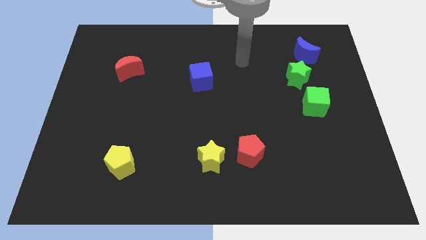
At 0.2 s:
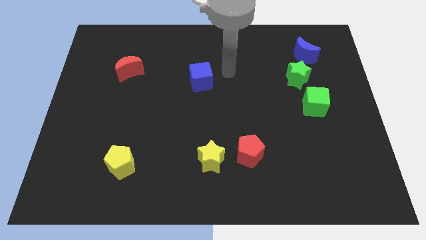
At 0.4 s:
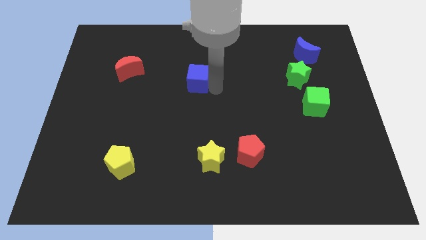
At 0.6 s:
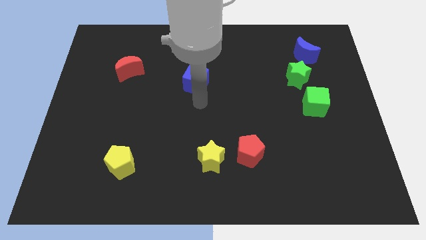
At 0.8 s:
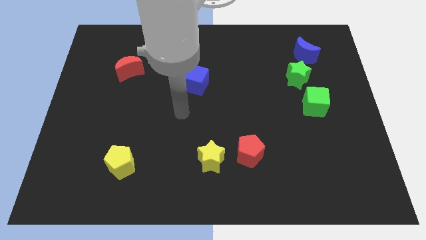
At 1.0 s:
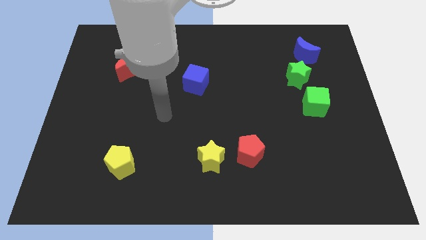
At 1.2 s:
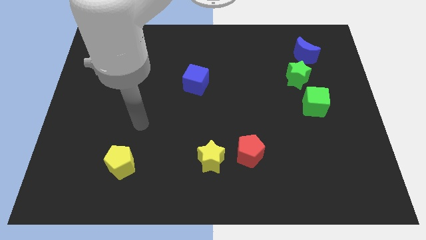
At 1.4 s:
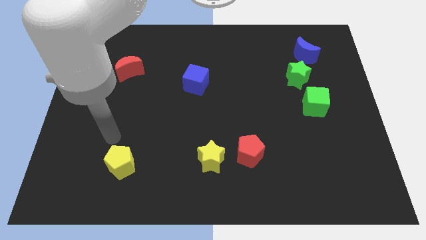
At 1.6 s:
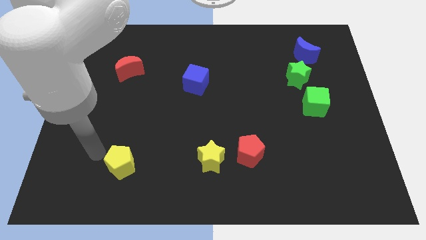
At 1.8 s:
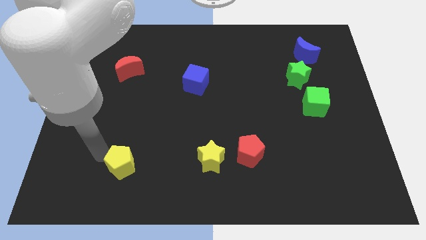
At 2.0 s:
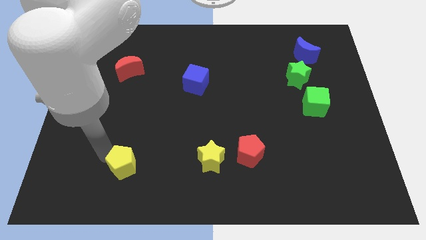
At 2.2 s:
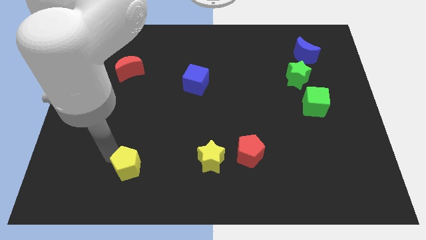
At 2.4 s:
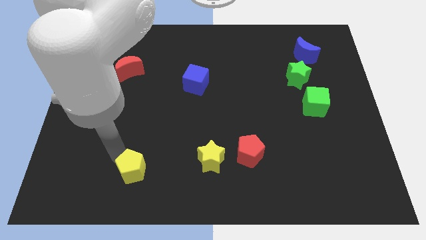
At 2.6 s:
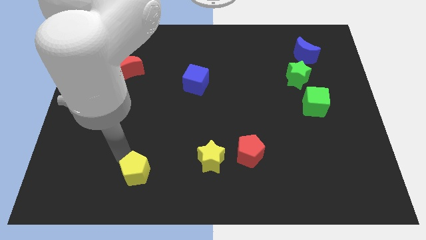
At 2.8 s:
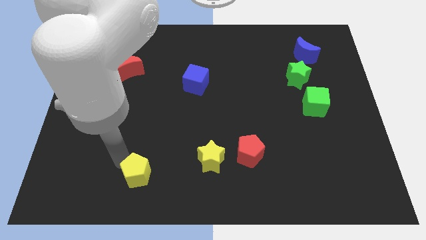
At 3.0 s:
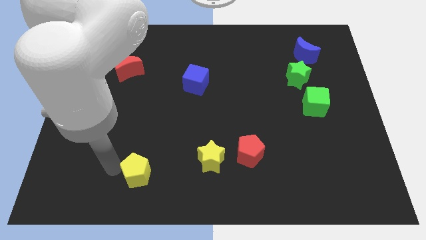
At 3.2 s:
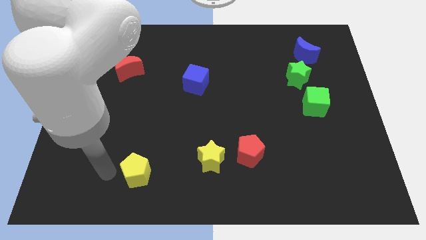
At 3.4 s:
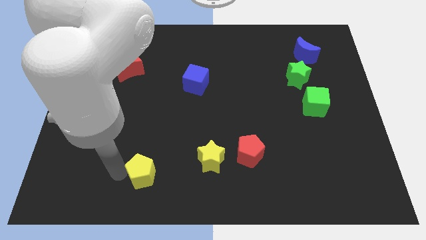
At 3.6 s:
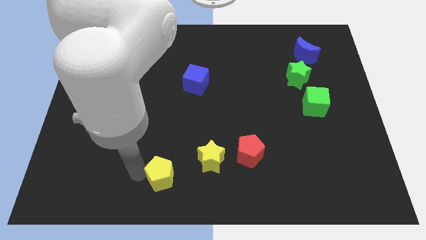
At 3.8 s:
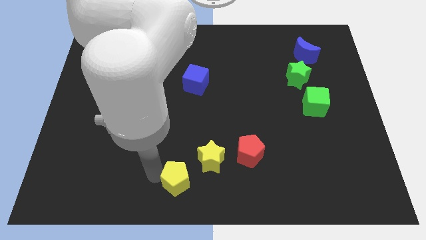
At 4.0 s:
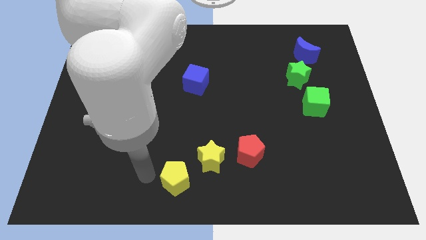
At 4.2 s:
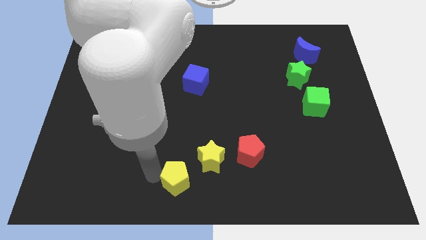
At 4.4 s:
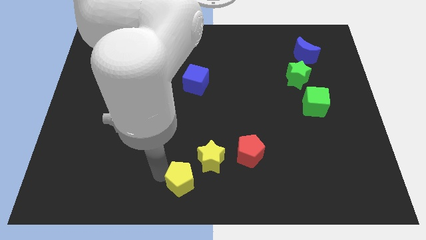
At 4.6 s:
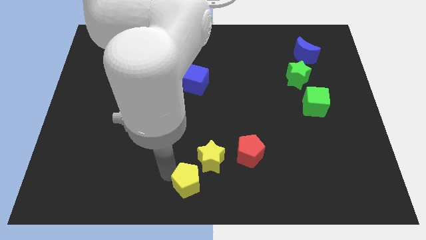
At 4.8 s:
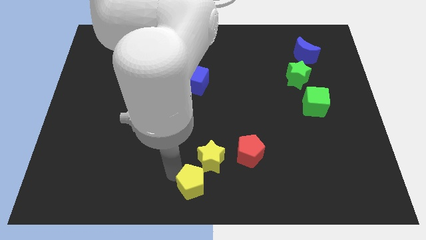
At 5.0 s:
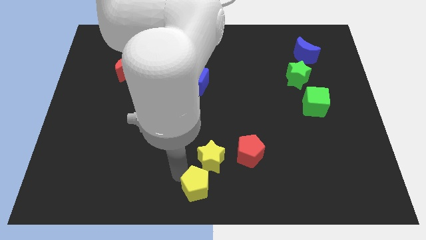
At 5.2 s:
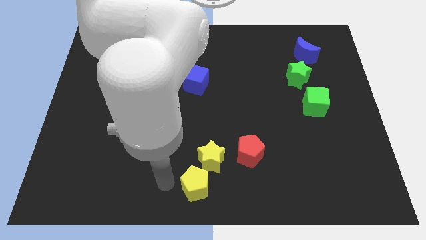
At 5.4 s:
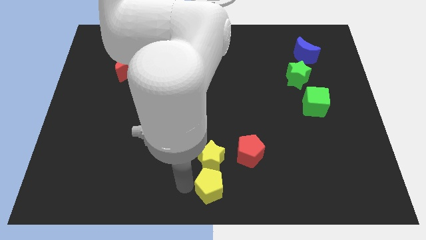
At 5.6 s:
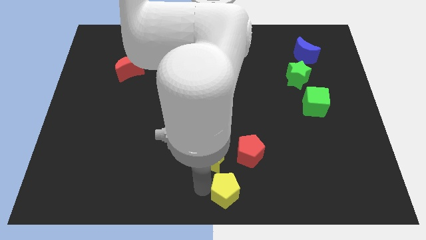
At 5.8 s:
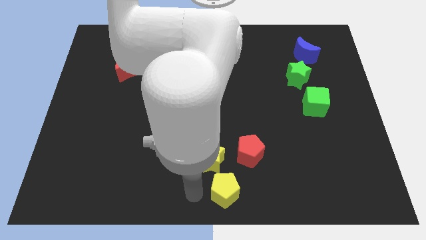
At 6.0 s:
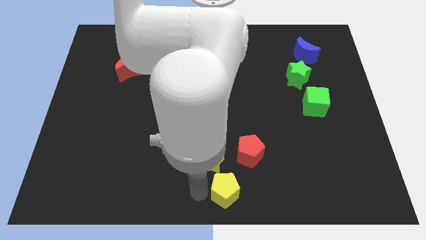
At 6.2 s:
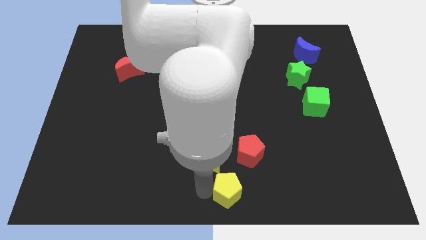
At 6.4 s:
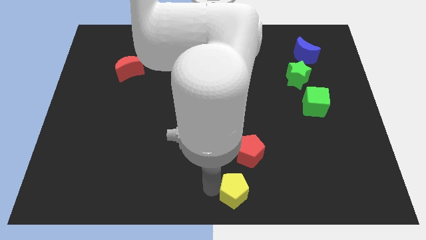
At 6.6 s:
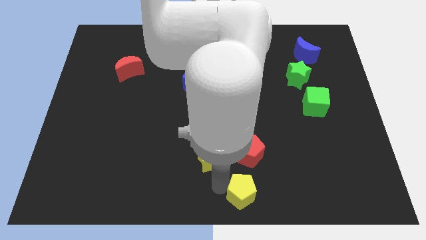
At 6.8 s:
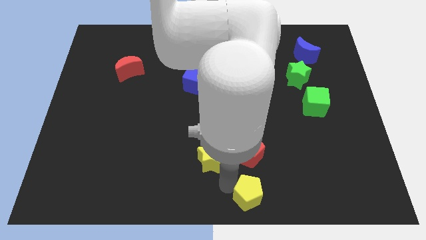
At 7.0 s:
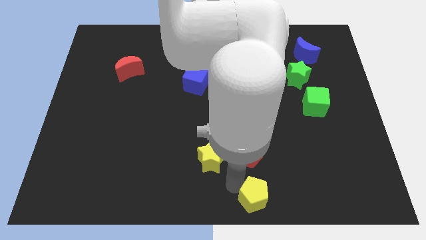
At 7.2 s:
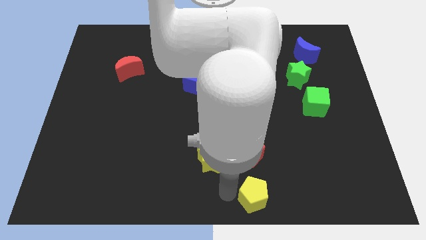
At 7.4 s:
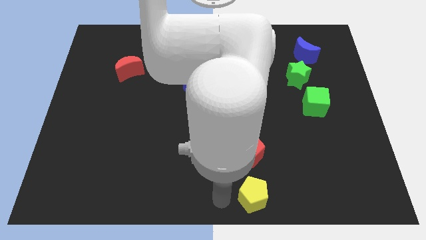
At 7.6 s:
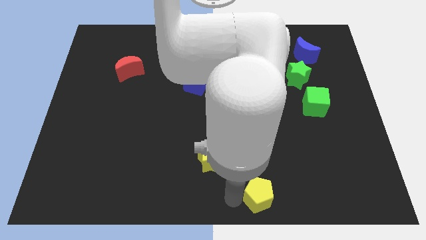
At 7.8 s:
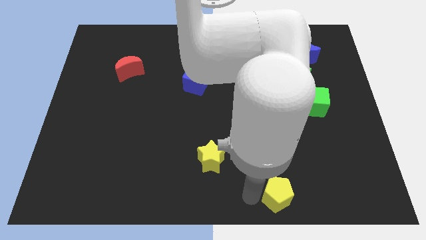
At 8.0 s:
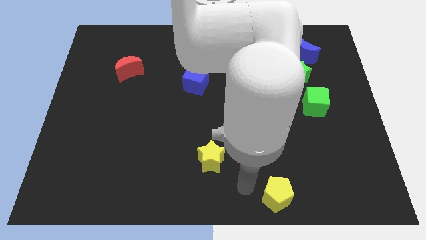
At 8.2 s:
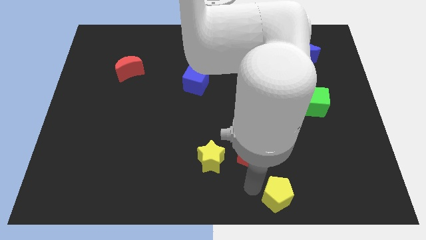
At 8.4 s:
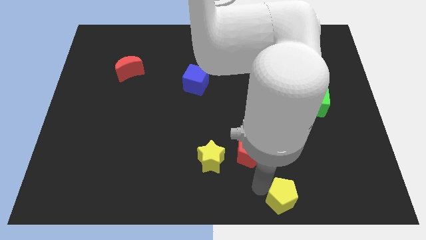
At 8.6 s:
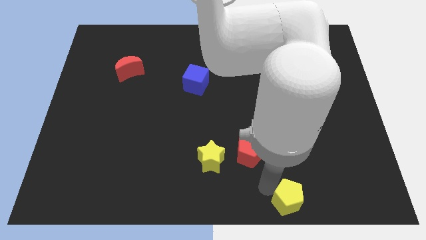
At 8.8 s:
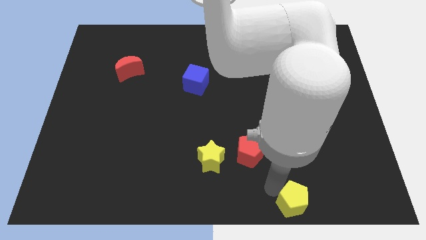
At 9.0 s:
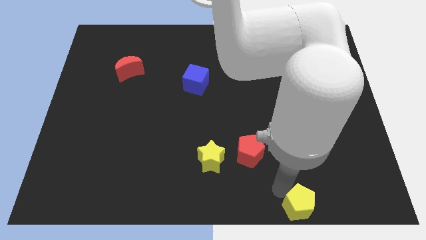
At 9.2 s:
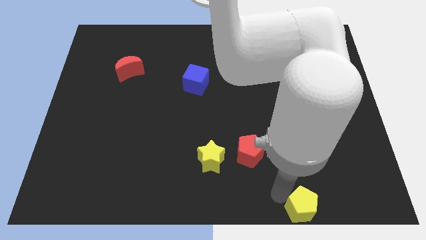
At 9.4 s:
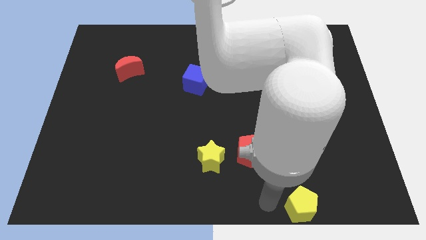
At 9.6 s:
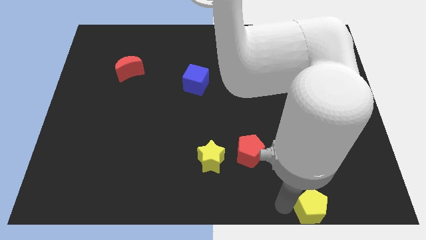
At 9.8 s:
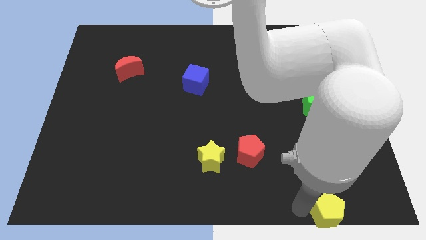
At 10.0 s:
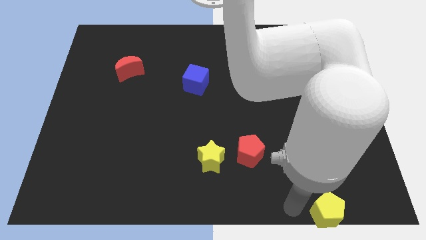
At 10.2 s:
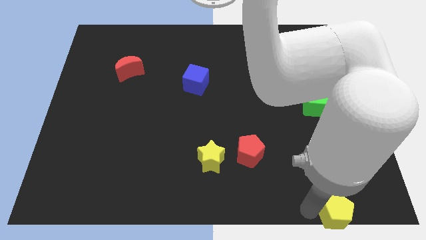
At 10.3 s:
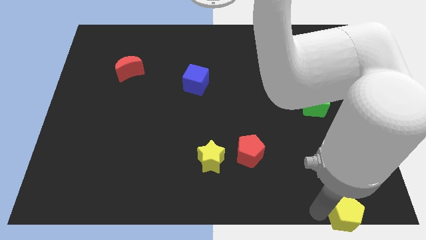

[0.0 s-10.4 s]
put the yellow pentagon to the bottom right of the board

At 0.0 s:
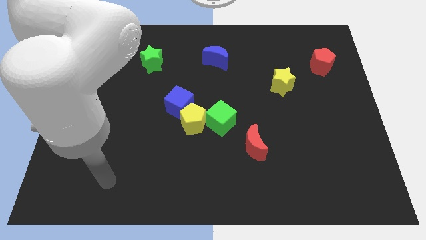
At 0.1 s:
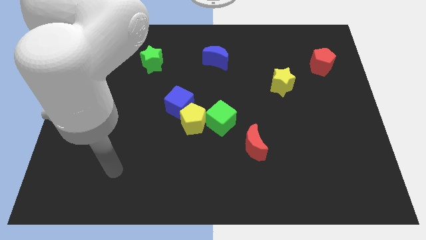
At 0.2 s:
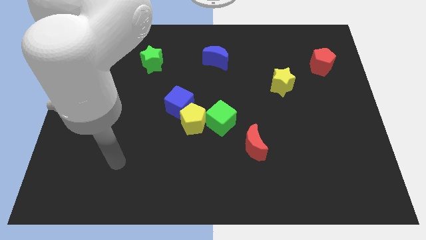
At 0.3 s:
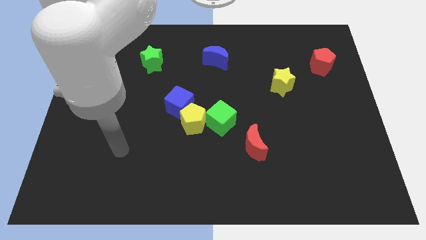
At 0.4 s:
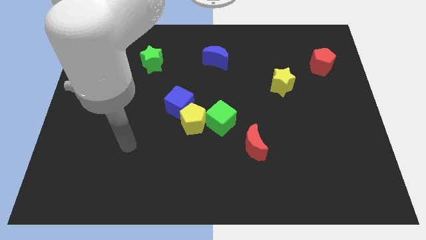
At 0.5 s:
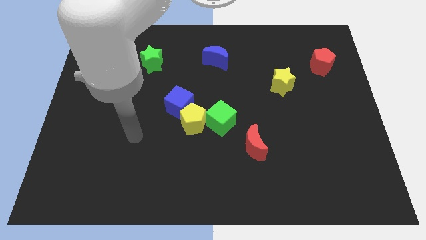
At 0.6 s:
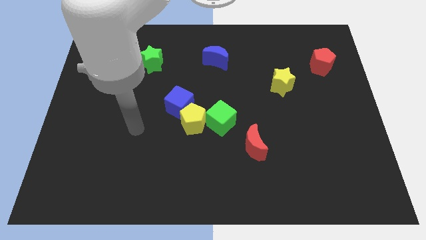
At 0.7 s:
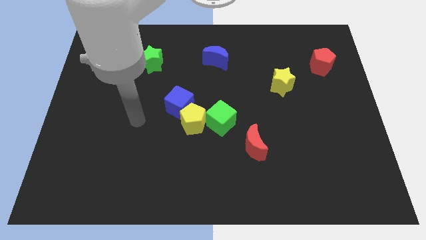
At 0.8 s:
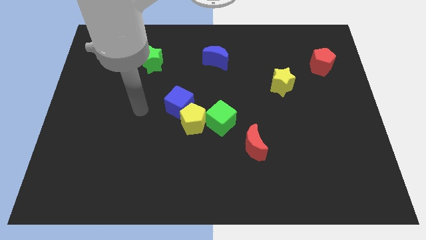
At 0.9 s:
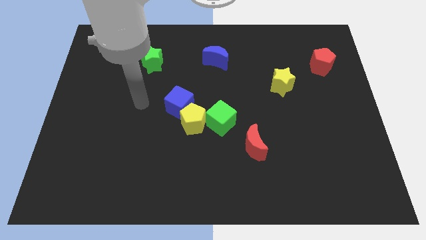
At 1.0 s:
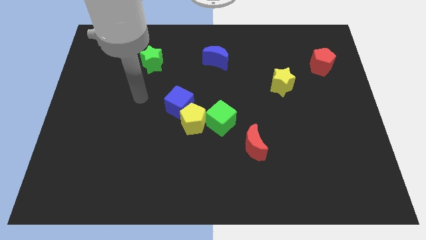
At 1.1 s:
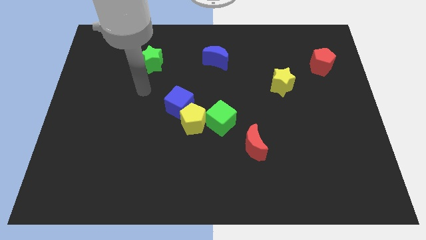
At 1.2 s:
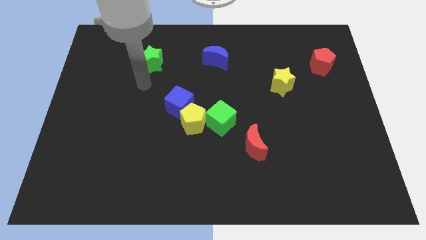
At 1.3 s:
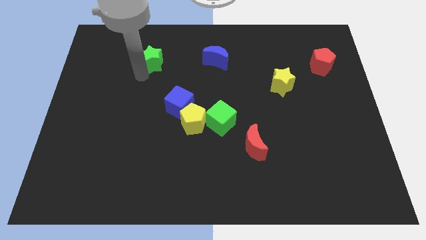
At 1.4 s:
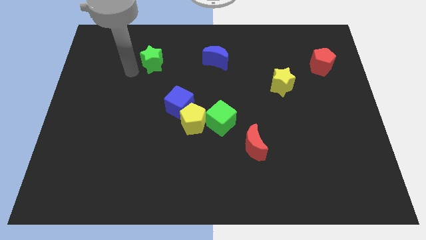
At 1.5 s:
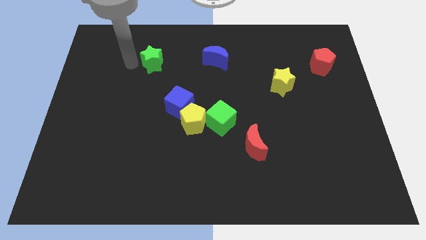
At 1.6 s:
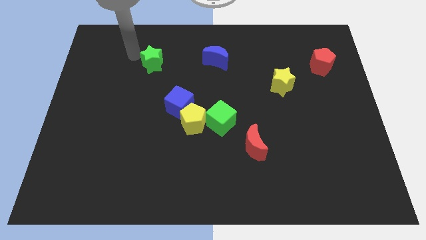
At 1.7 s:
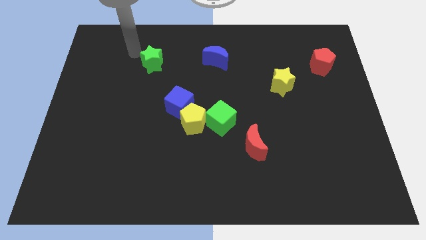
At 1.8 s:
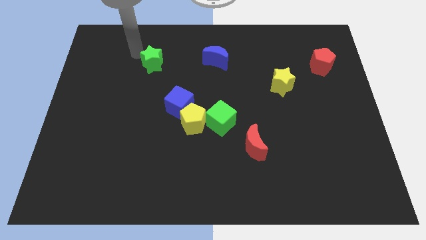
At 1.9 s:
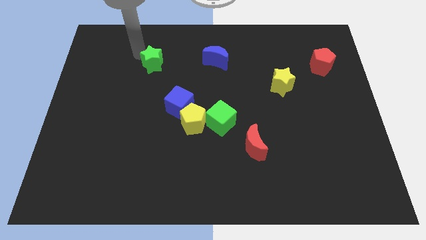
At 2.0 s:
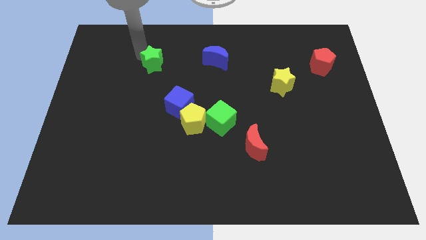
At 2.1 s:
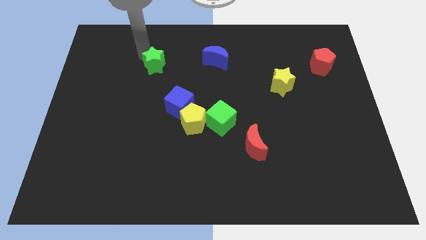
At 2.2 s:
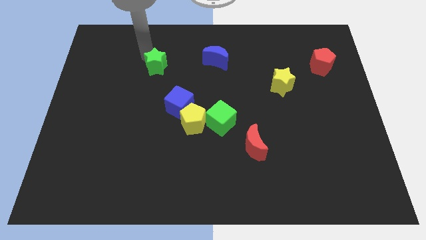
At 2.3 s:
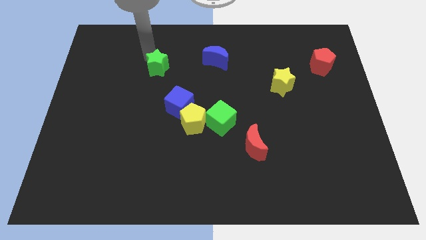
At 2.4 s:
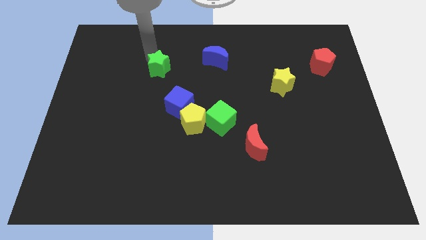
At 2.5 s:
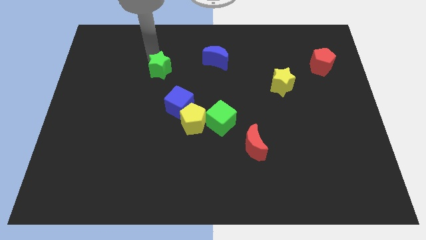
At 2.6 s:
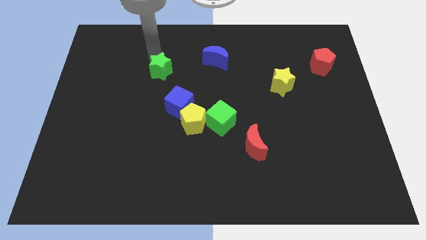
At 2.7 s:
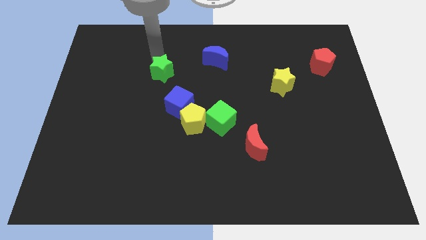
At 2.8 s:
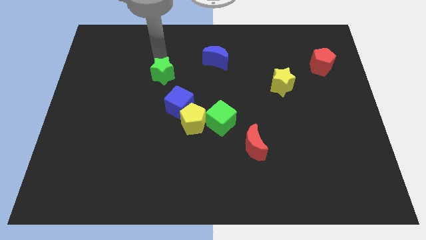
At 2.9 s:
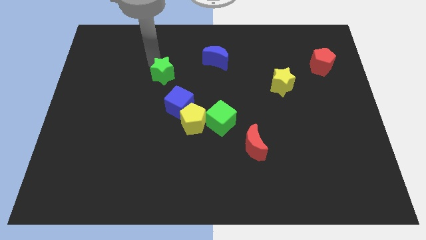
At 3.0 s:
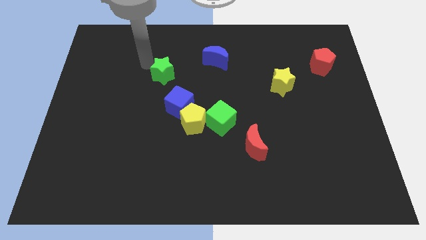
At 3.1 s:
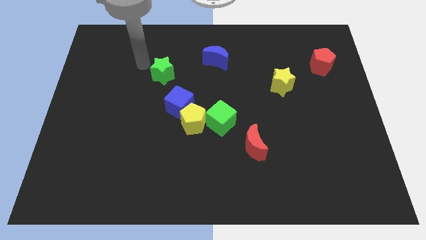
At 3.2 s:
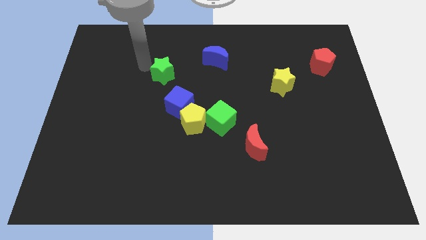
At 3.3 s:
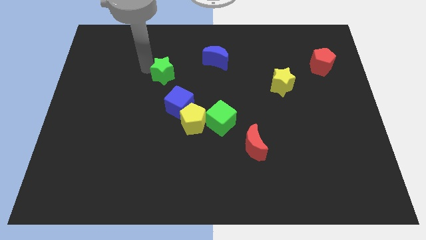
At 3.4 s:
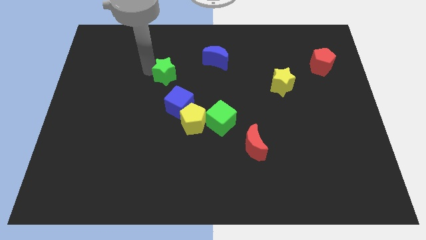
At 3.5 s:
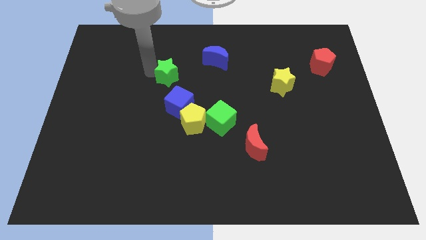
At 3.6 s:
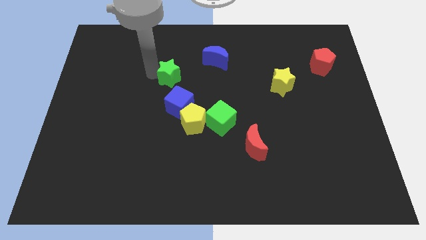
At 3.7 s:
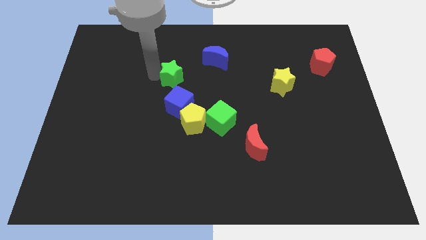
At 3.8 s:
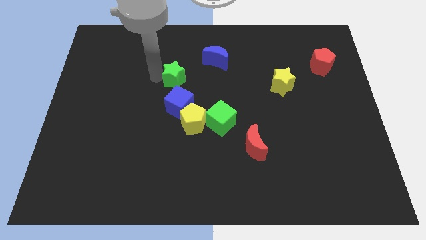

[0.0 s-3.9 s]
push the green star to the center
